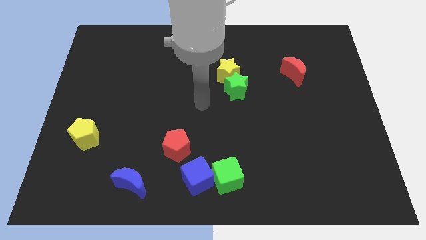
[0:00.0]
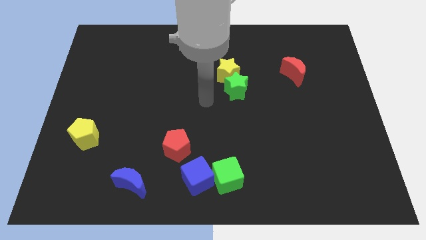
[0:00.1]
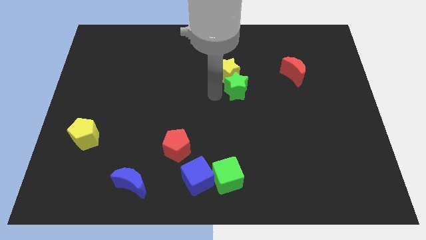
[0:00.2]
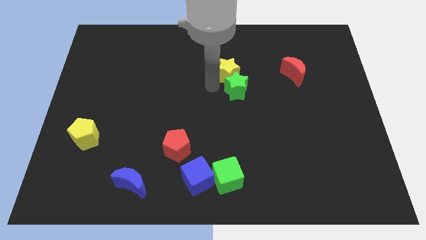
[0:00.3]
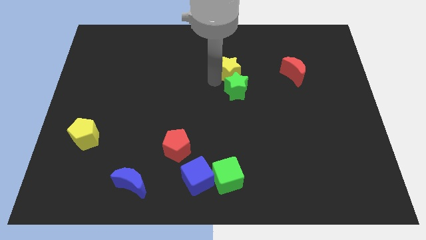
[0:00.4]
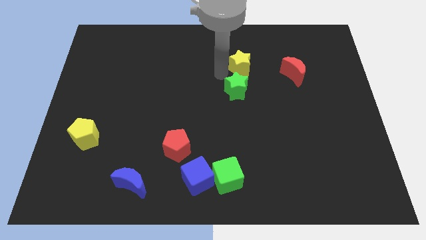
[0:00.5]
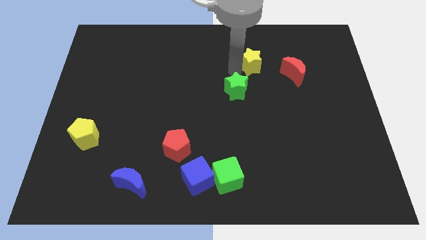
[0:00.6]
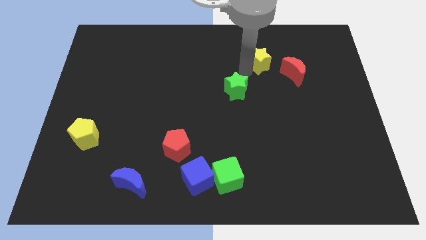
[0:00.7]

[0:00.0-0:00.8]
move the green star away from the yellow star

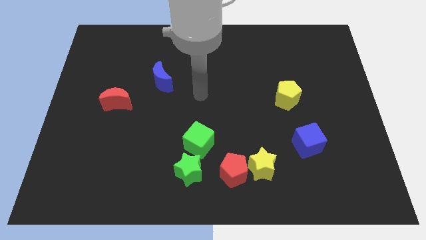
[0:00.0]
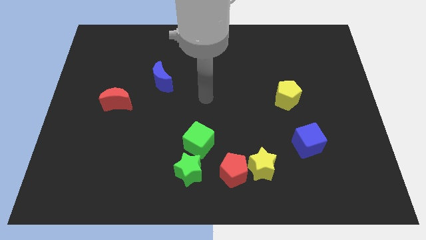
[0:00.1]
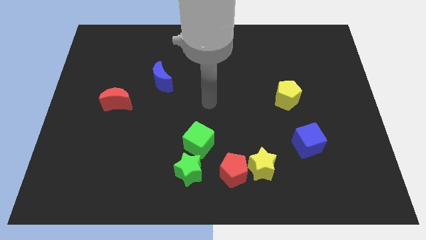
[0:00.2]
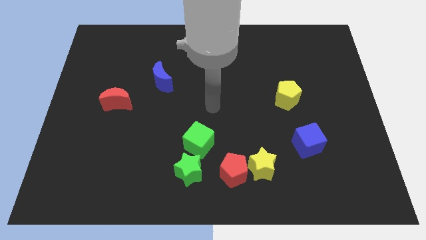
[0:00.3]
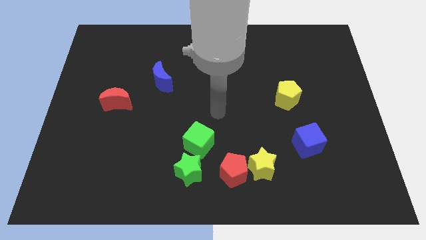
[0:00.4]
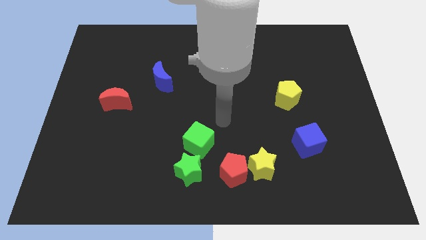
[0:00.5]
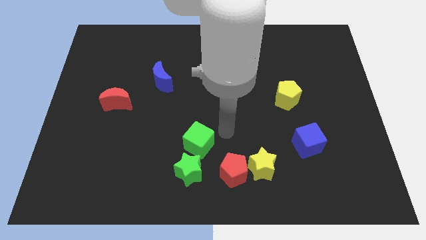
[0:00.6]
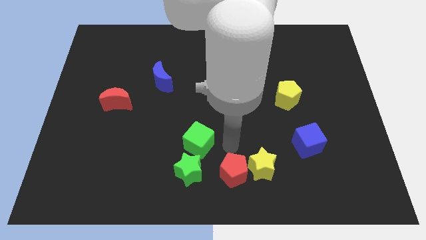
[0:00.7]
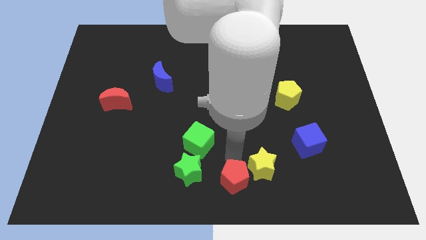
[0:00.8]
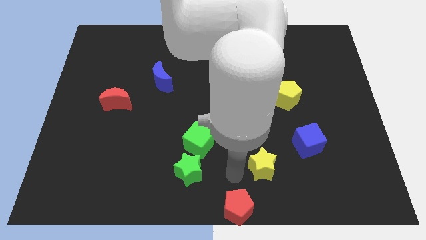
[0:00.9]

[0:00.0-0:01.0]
pull the yellow star apart from the red pentagon

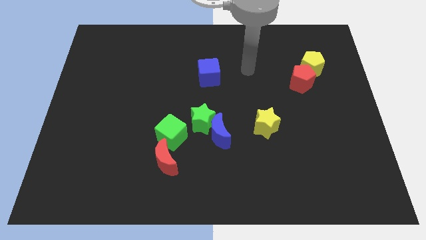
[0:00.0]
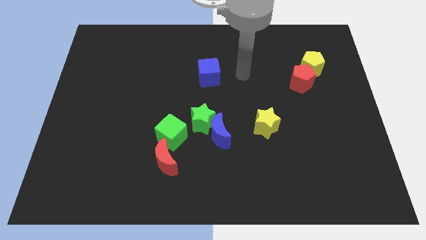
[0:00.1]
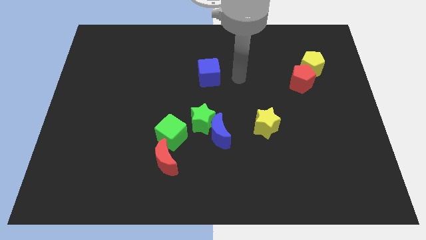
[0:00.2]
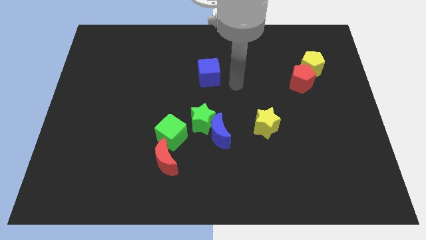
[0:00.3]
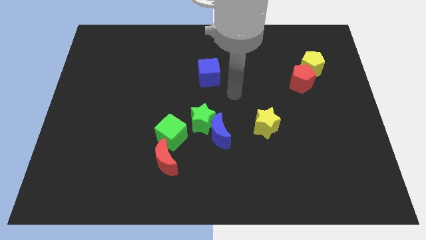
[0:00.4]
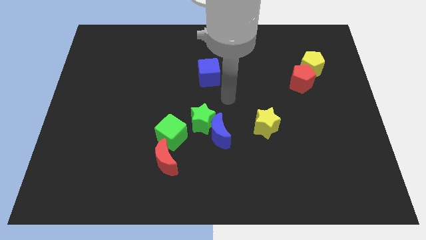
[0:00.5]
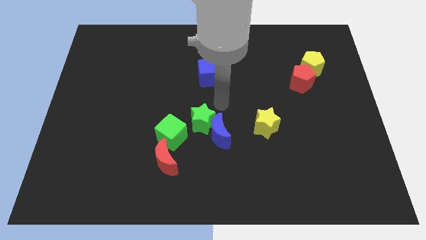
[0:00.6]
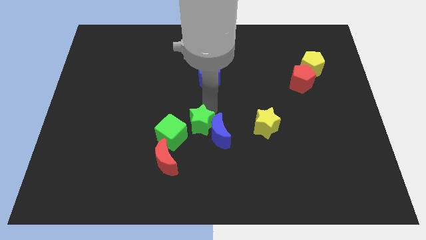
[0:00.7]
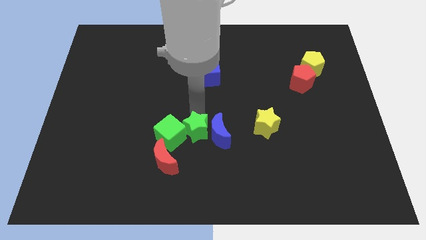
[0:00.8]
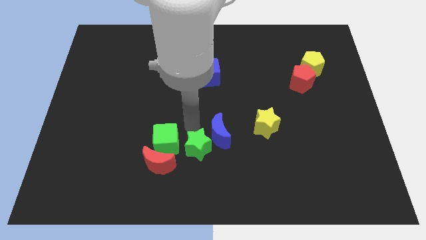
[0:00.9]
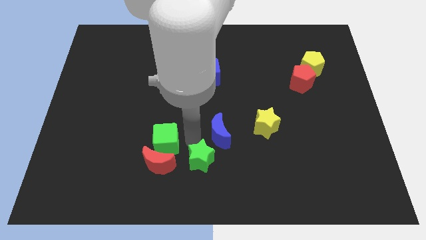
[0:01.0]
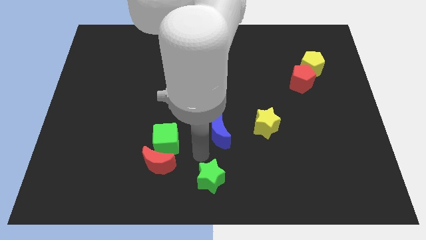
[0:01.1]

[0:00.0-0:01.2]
pull the blue moon apart from the green star

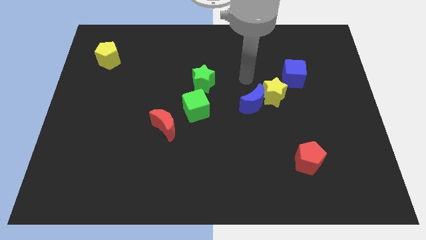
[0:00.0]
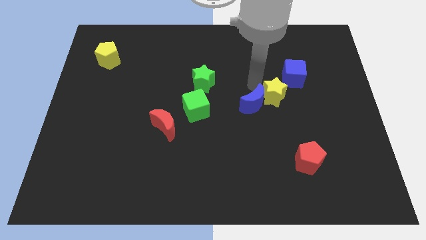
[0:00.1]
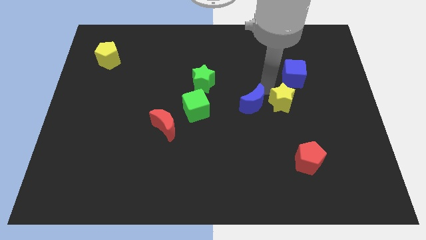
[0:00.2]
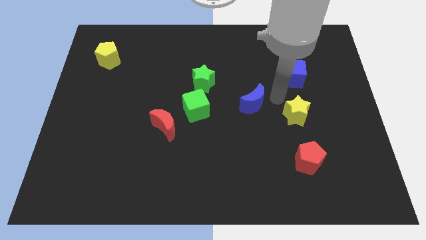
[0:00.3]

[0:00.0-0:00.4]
move the blue moon away from the yellow star

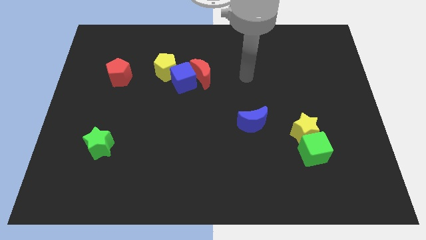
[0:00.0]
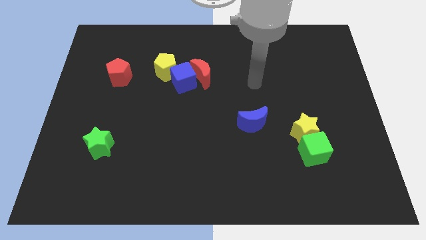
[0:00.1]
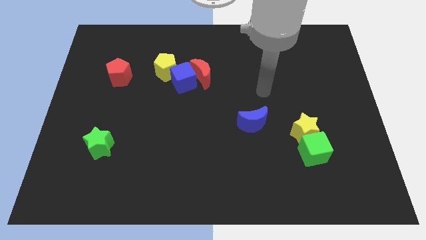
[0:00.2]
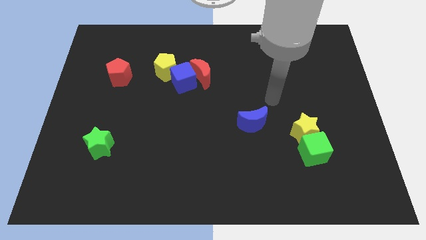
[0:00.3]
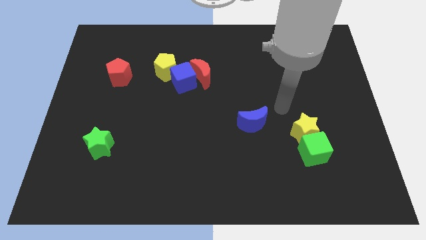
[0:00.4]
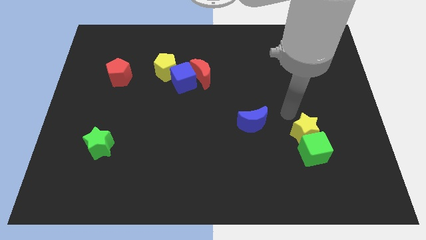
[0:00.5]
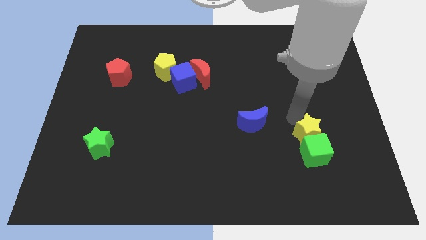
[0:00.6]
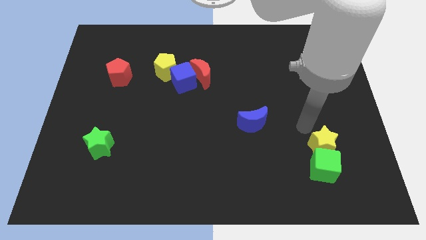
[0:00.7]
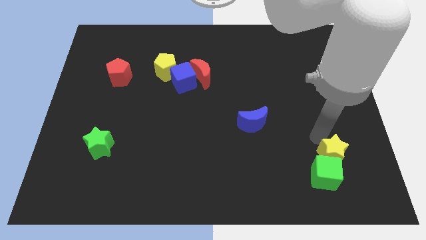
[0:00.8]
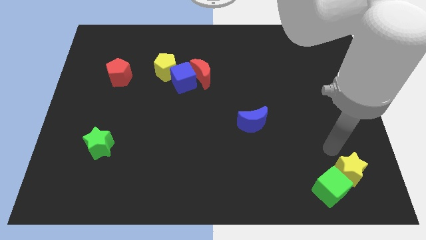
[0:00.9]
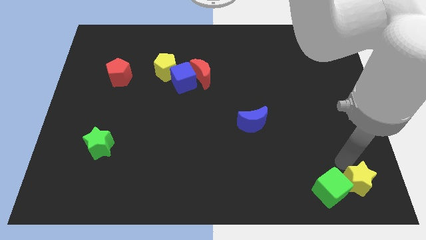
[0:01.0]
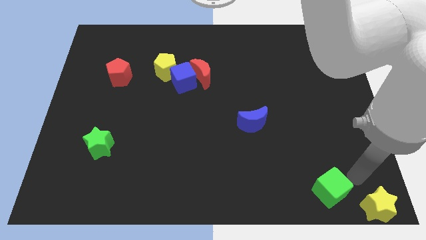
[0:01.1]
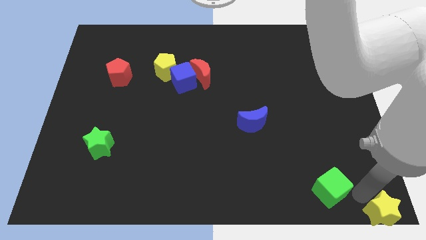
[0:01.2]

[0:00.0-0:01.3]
pull the green cube apart from the yellow star

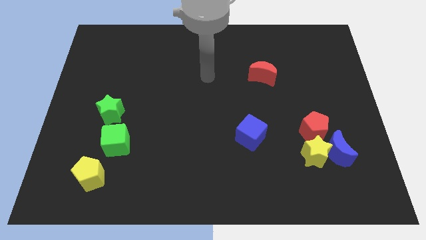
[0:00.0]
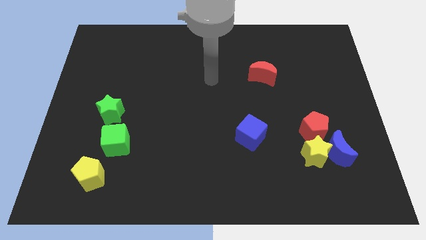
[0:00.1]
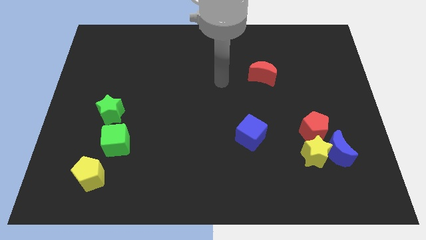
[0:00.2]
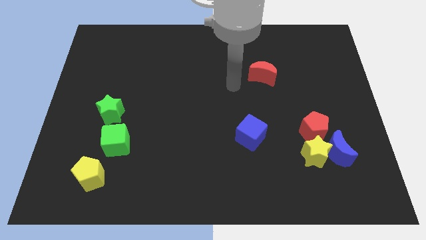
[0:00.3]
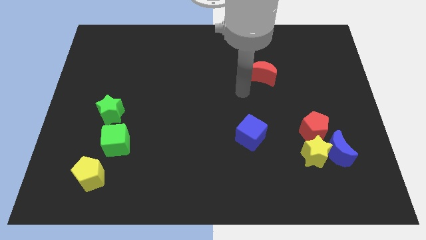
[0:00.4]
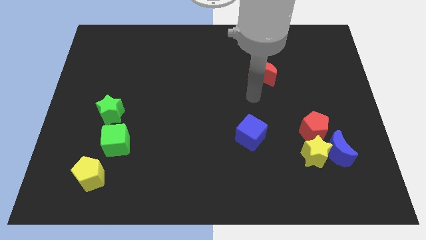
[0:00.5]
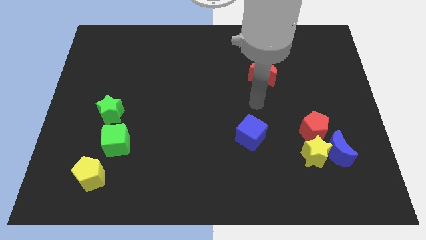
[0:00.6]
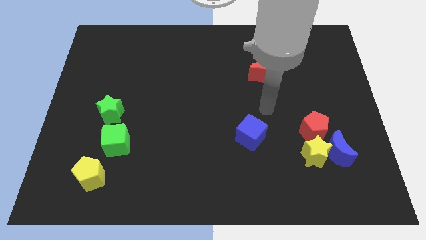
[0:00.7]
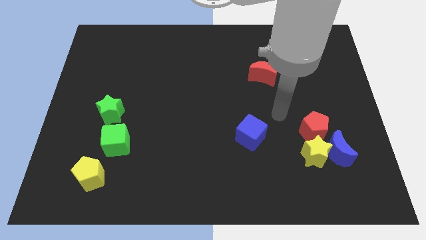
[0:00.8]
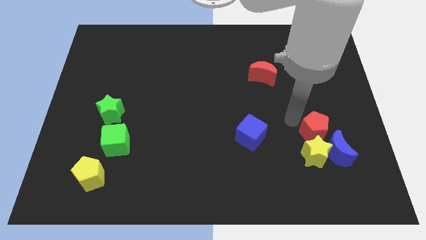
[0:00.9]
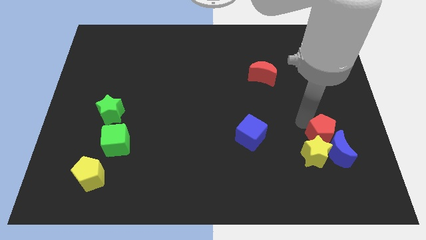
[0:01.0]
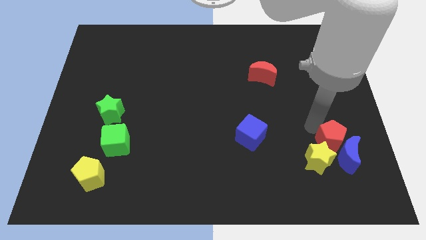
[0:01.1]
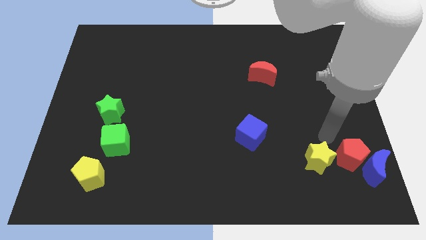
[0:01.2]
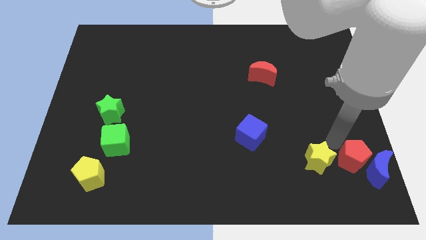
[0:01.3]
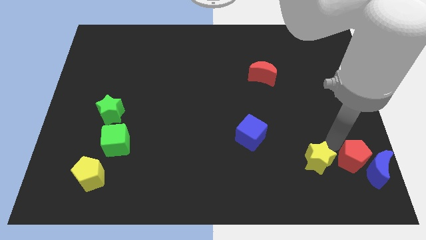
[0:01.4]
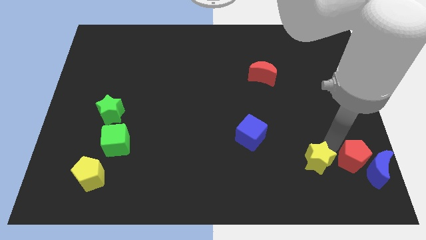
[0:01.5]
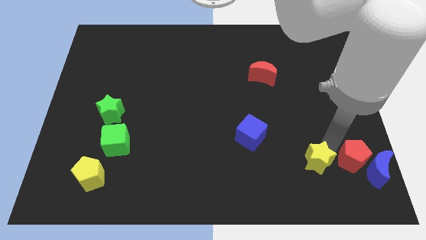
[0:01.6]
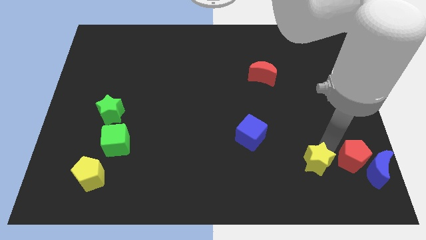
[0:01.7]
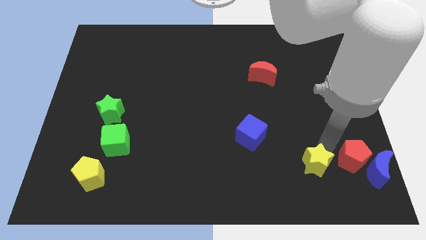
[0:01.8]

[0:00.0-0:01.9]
move the yellow star away from the blue moon and red pentagon

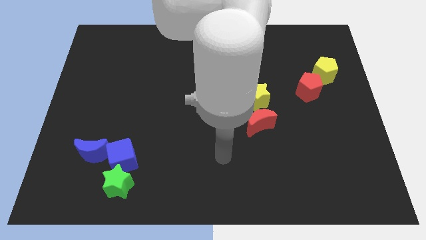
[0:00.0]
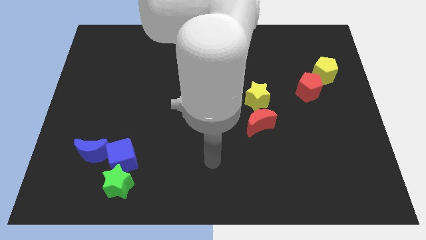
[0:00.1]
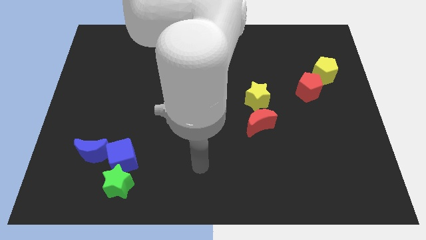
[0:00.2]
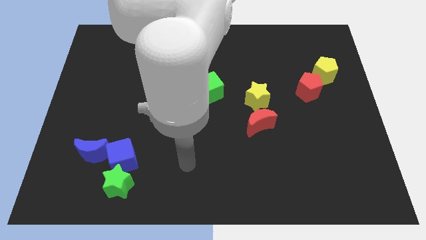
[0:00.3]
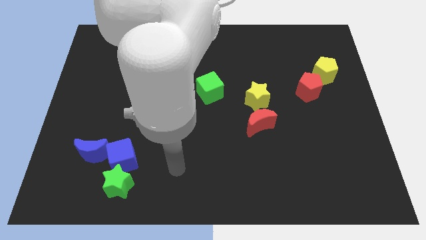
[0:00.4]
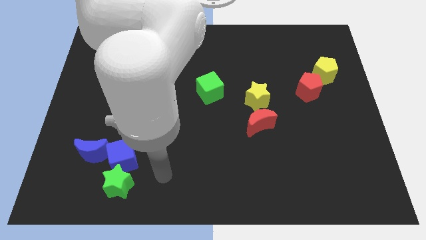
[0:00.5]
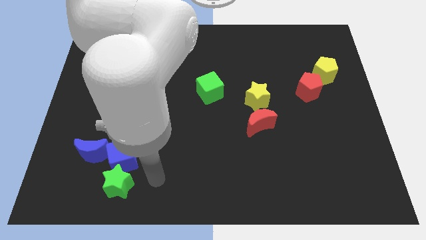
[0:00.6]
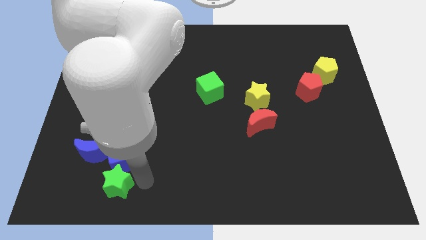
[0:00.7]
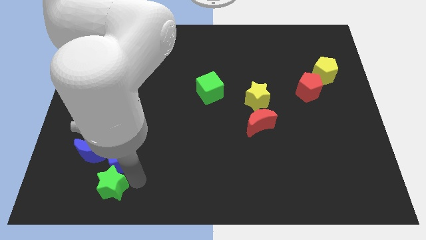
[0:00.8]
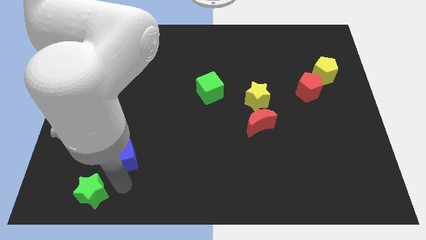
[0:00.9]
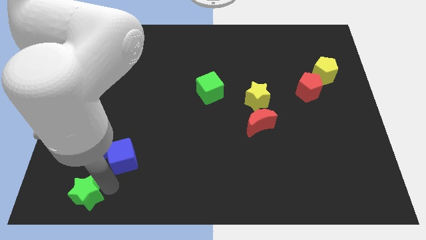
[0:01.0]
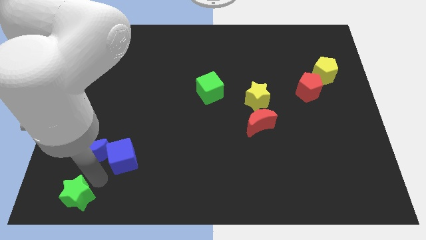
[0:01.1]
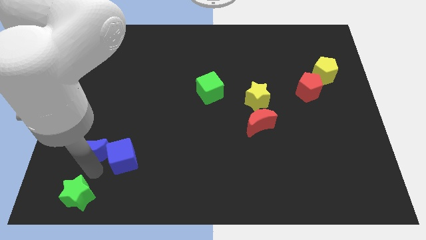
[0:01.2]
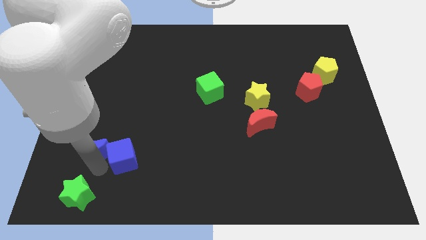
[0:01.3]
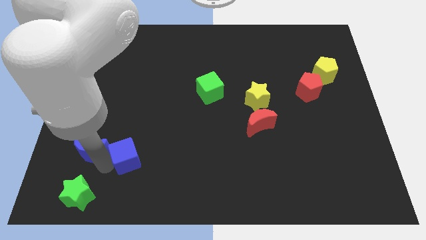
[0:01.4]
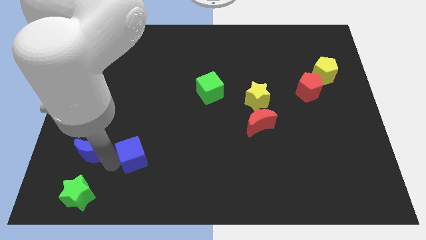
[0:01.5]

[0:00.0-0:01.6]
pull the blue cube apart from the green star and blue moon

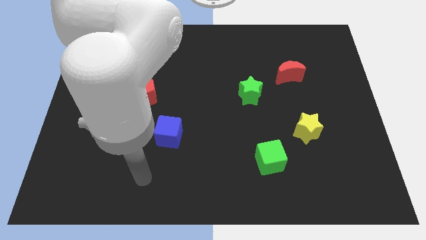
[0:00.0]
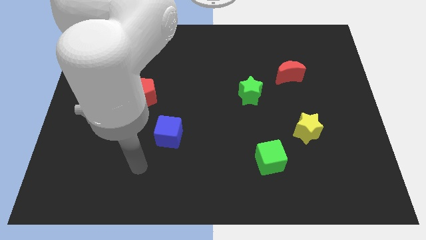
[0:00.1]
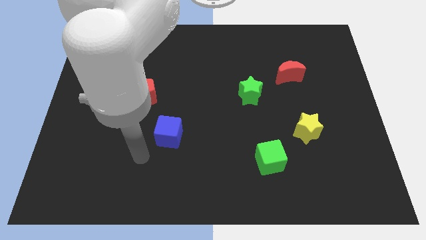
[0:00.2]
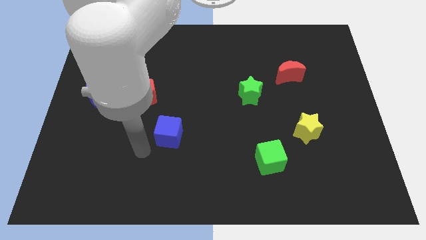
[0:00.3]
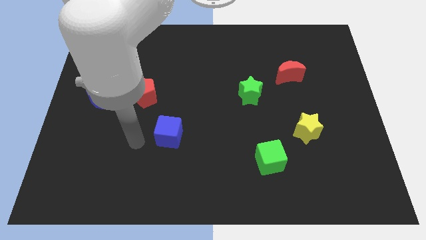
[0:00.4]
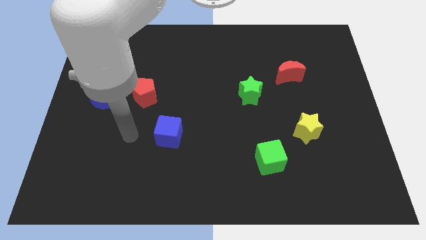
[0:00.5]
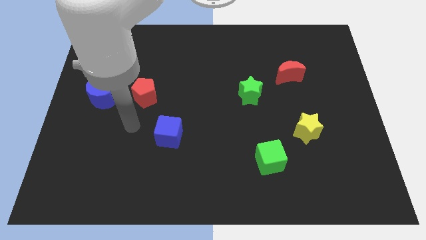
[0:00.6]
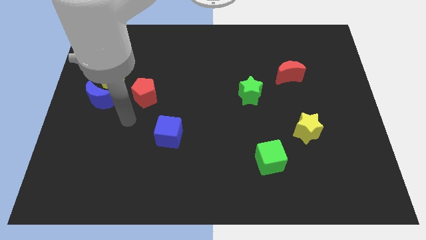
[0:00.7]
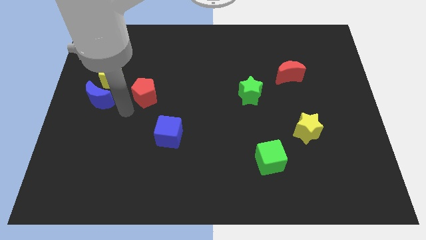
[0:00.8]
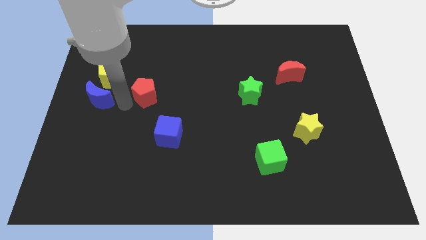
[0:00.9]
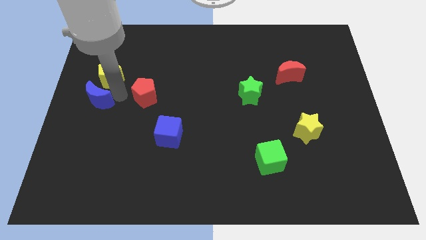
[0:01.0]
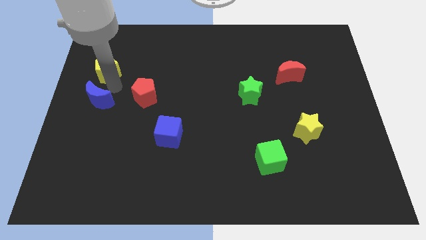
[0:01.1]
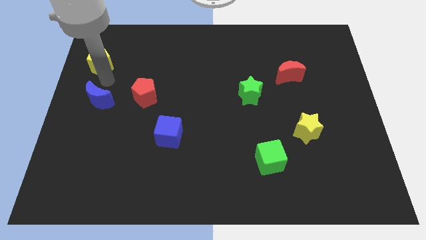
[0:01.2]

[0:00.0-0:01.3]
pull the blue moon apart from the yellow pentagon
